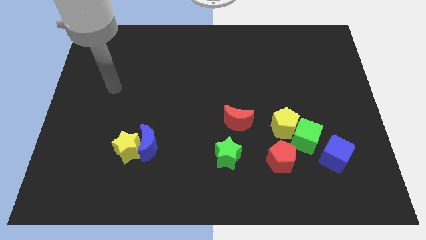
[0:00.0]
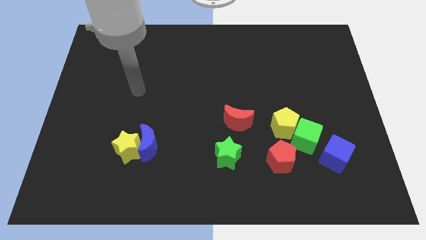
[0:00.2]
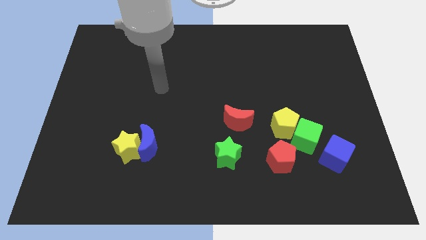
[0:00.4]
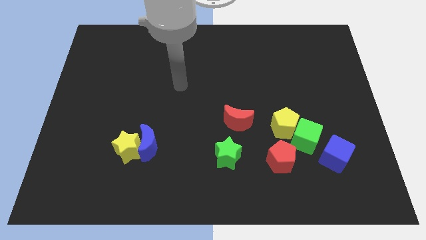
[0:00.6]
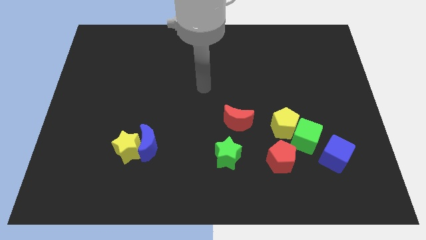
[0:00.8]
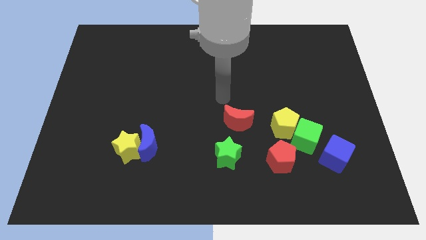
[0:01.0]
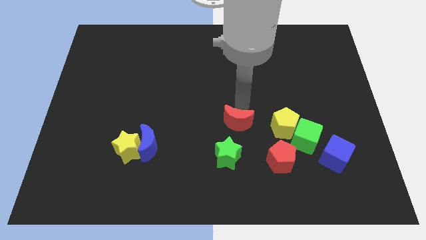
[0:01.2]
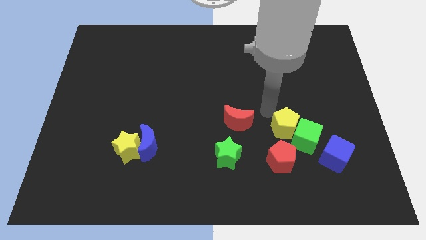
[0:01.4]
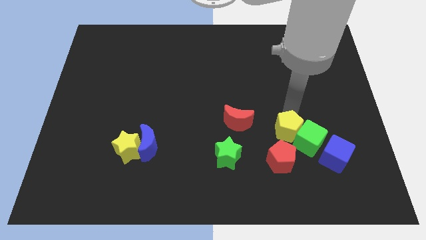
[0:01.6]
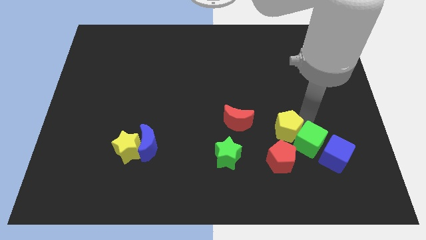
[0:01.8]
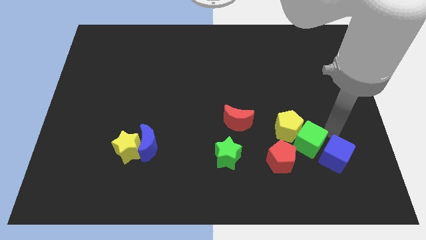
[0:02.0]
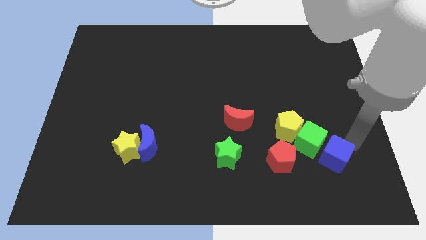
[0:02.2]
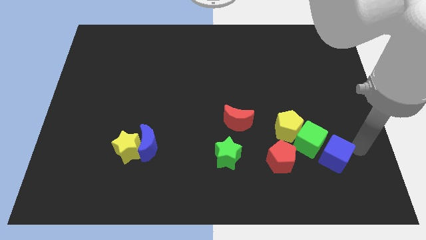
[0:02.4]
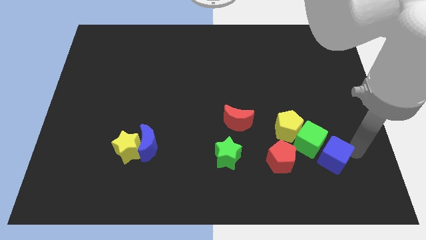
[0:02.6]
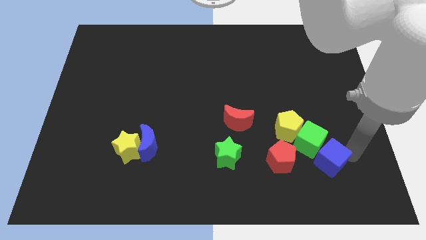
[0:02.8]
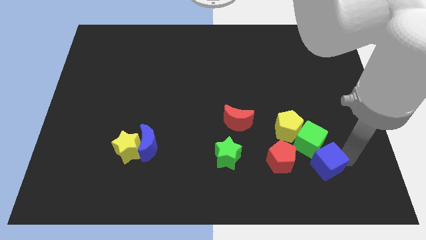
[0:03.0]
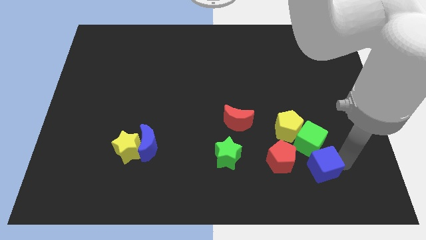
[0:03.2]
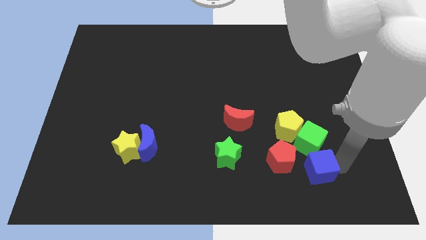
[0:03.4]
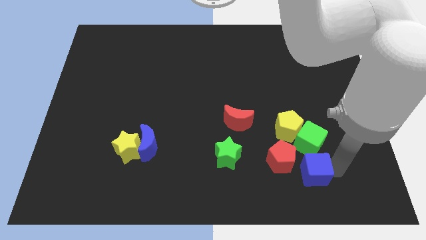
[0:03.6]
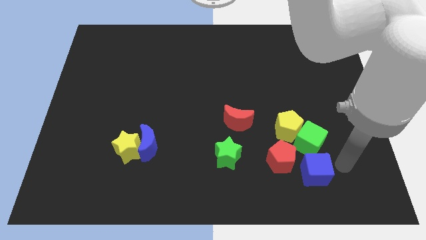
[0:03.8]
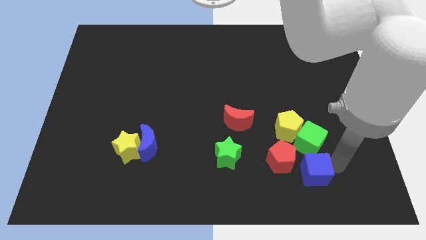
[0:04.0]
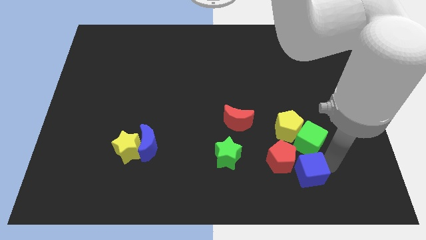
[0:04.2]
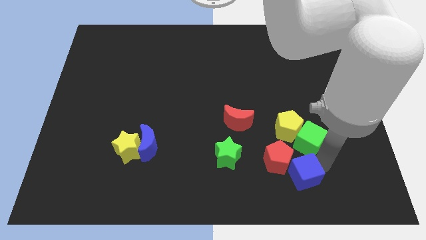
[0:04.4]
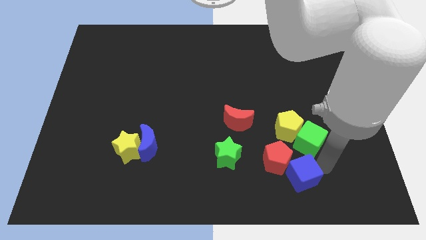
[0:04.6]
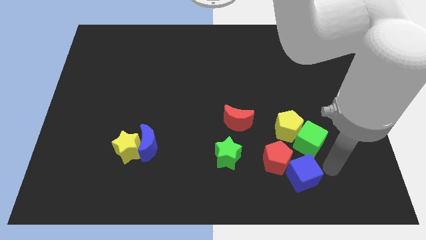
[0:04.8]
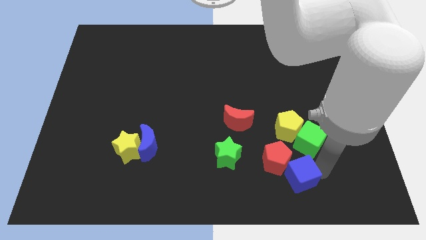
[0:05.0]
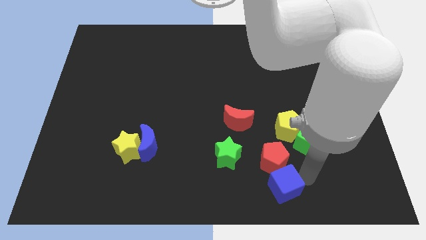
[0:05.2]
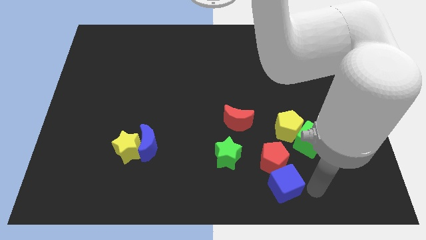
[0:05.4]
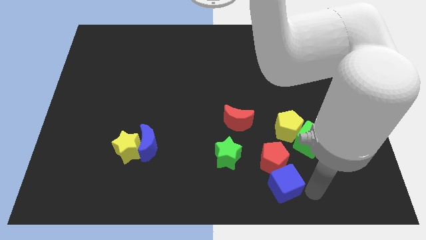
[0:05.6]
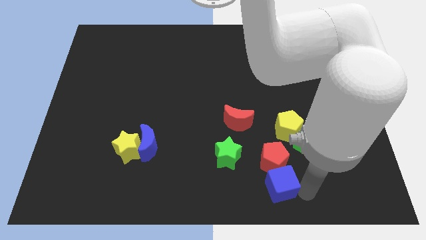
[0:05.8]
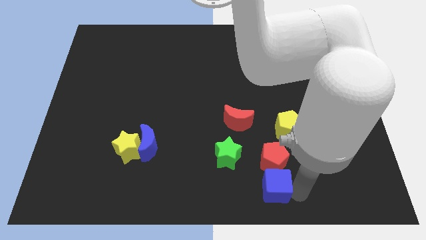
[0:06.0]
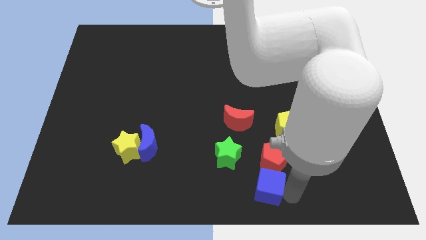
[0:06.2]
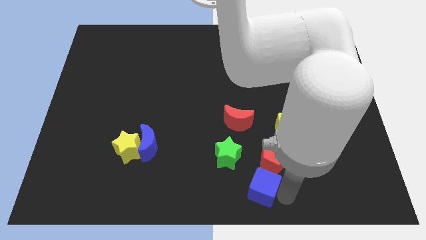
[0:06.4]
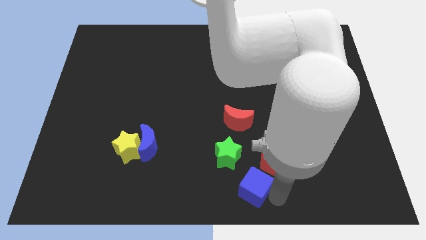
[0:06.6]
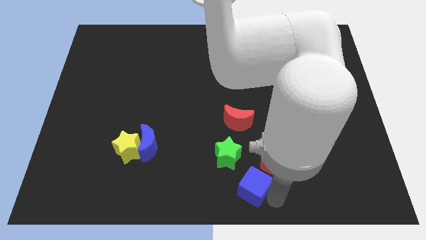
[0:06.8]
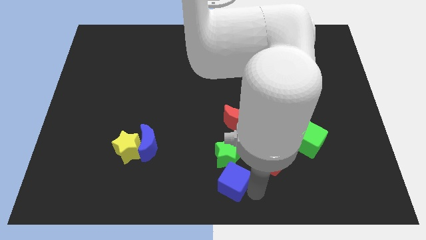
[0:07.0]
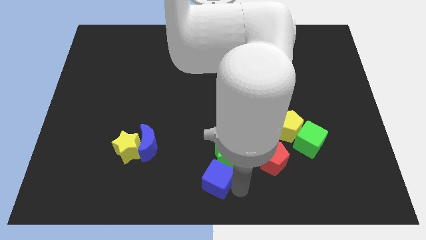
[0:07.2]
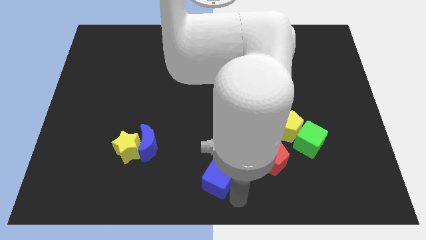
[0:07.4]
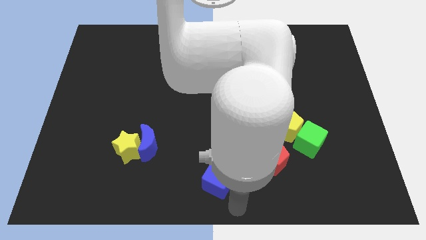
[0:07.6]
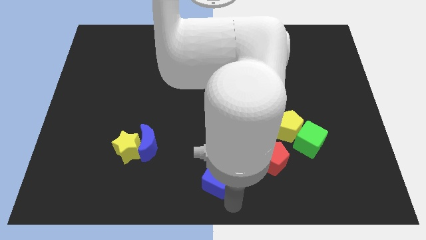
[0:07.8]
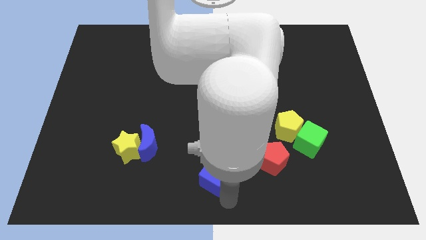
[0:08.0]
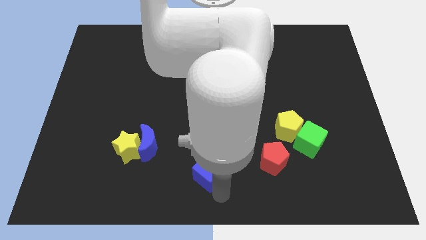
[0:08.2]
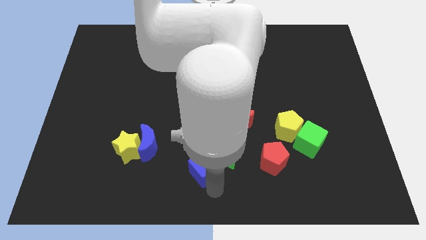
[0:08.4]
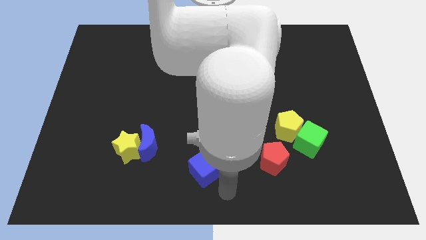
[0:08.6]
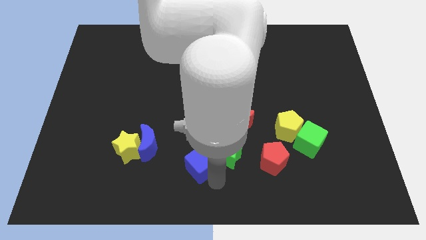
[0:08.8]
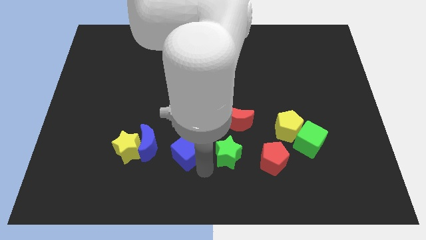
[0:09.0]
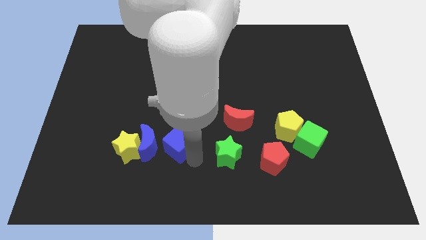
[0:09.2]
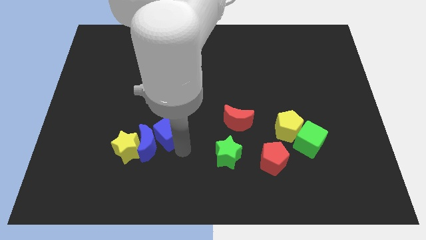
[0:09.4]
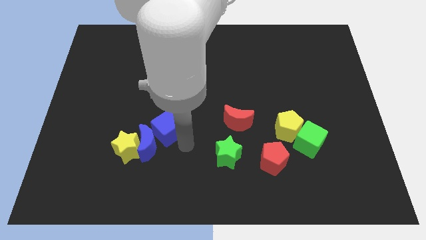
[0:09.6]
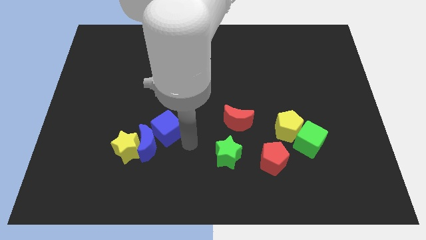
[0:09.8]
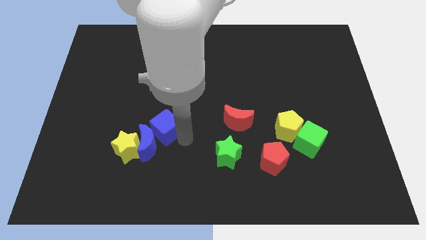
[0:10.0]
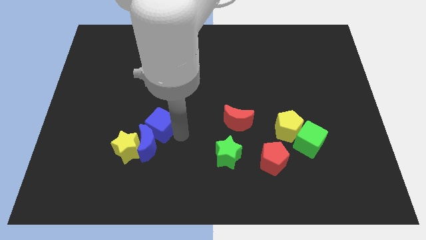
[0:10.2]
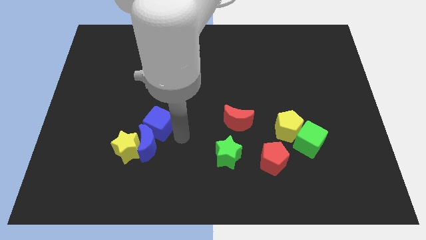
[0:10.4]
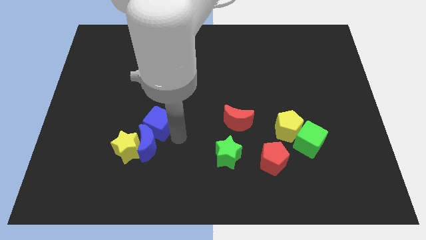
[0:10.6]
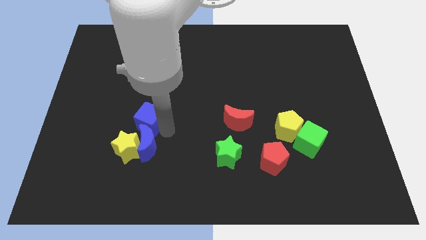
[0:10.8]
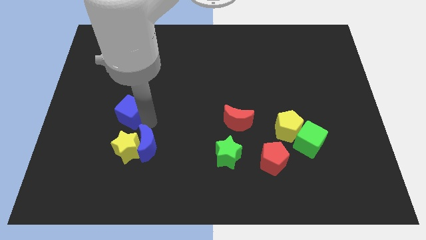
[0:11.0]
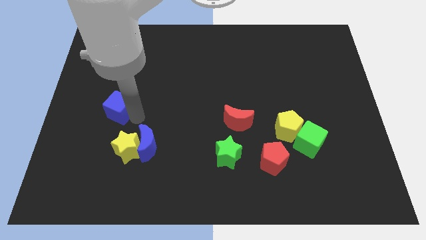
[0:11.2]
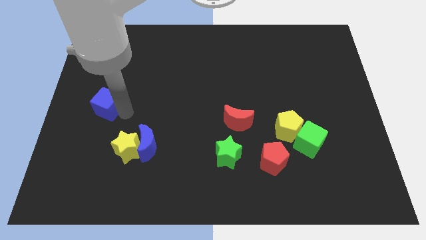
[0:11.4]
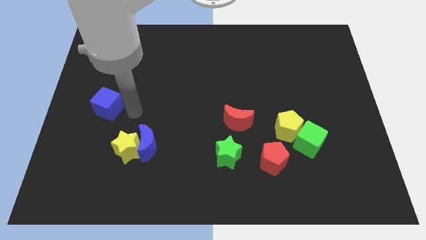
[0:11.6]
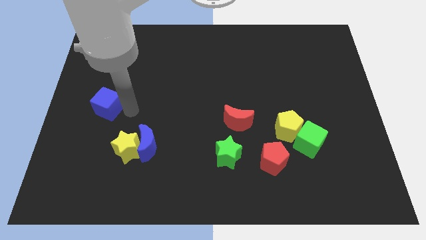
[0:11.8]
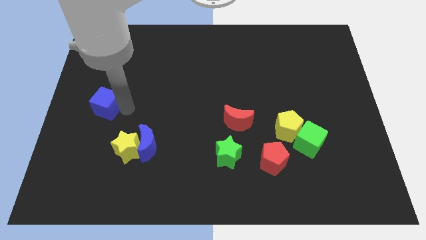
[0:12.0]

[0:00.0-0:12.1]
move the blue cube to the left side

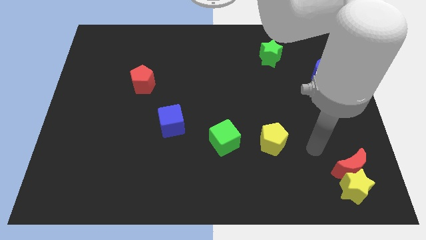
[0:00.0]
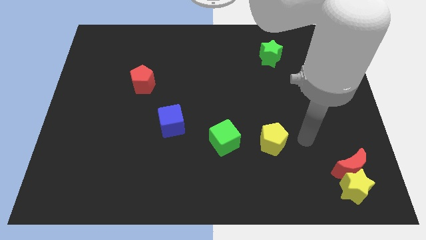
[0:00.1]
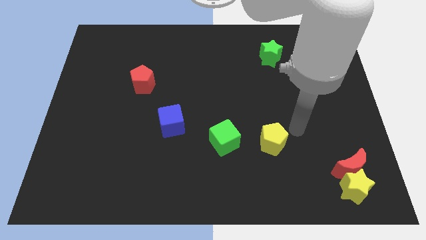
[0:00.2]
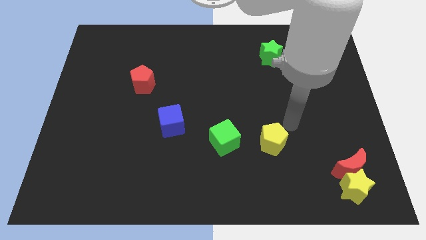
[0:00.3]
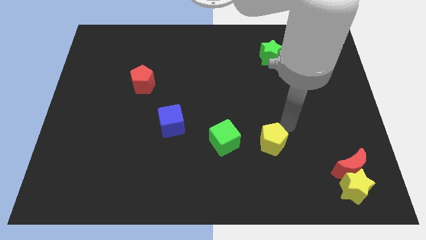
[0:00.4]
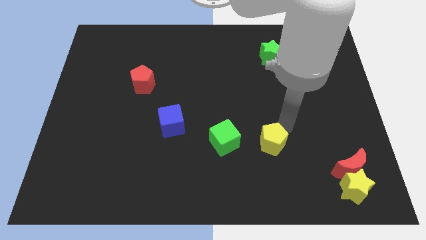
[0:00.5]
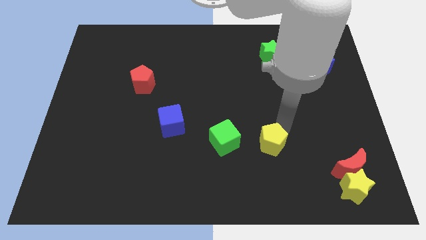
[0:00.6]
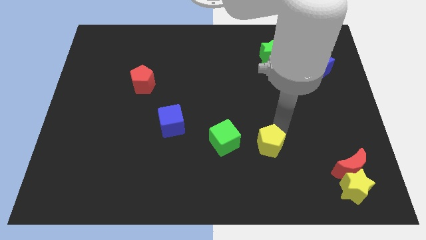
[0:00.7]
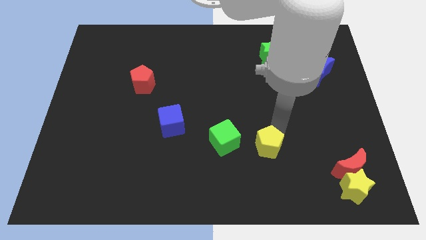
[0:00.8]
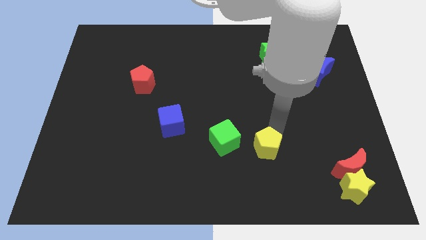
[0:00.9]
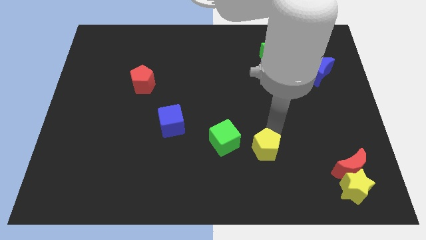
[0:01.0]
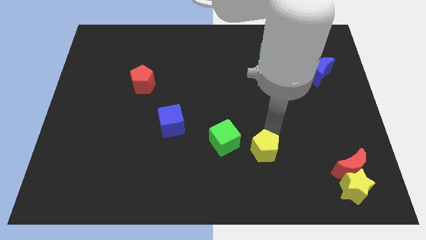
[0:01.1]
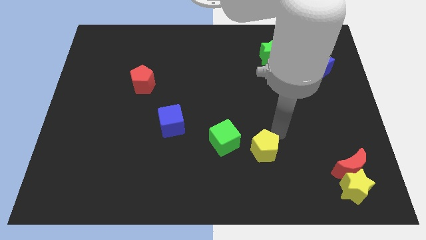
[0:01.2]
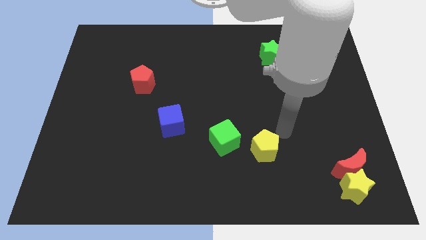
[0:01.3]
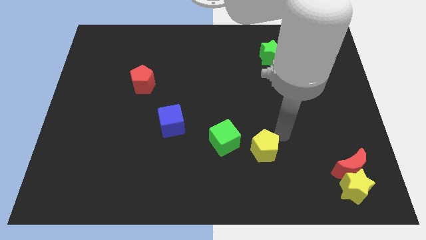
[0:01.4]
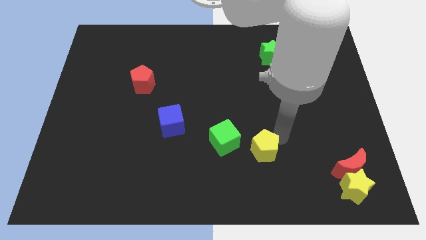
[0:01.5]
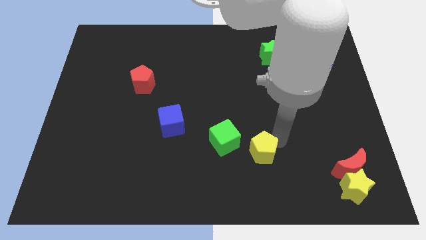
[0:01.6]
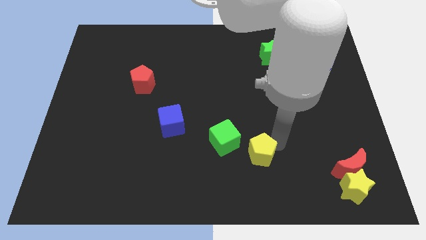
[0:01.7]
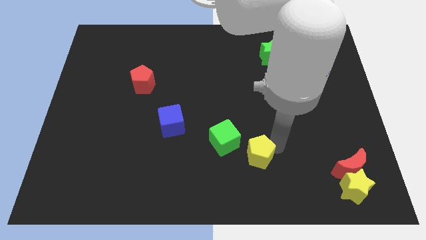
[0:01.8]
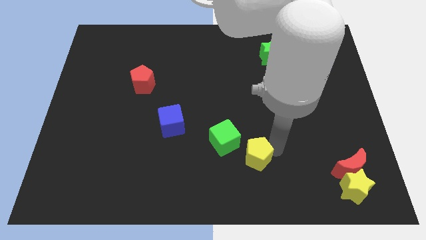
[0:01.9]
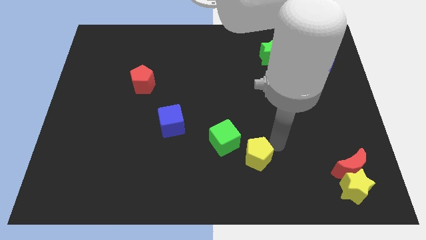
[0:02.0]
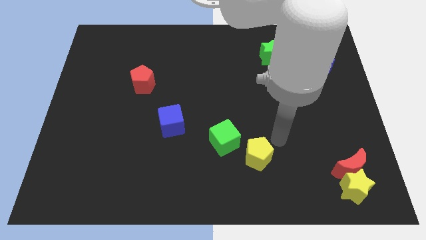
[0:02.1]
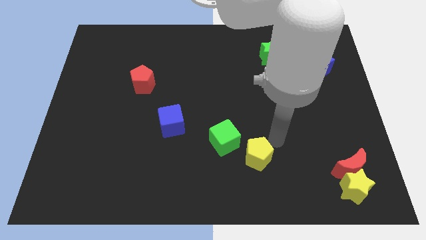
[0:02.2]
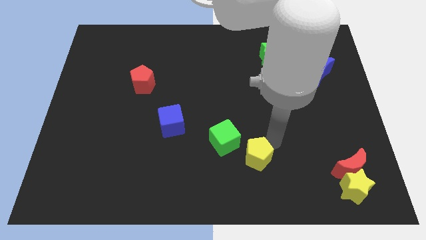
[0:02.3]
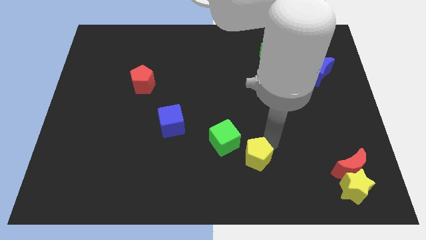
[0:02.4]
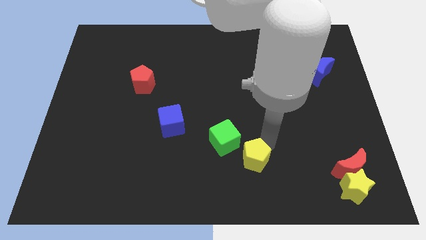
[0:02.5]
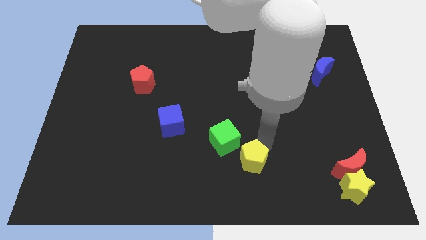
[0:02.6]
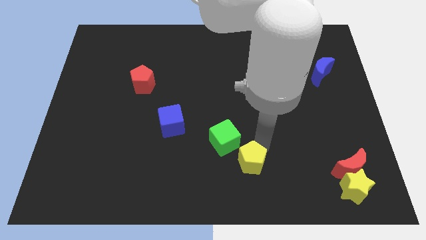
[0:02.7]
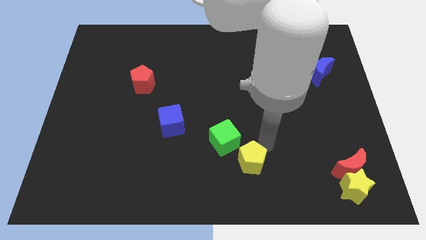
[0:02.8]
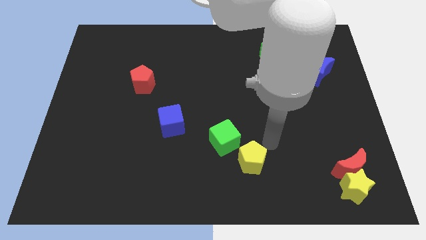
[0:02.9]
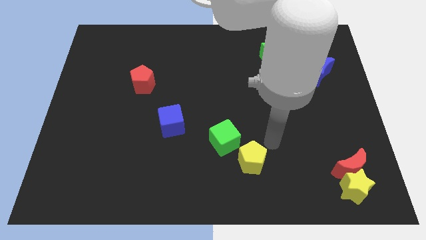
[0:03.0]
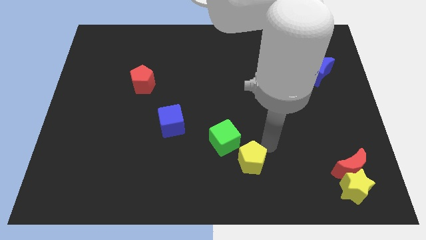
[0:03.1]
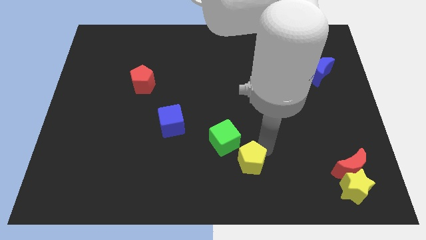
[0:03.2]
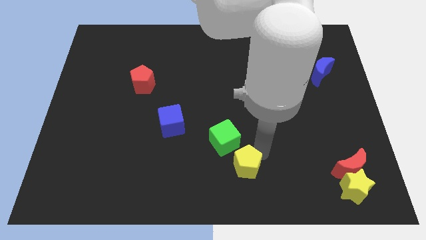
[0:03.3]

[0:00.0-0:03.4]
move the yellow pentagon to the bottom side
